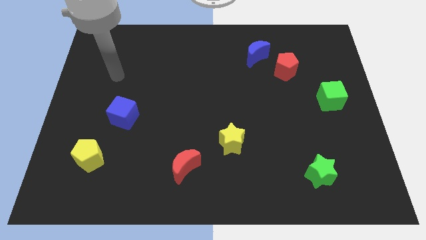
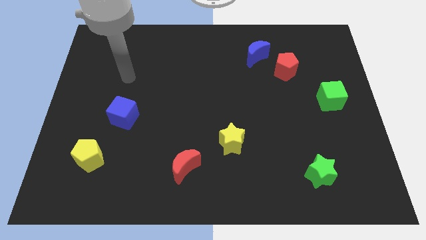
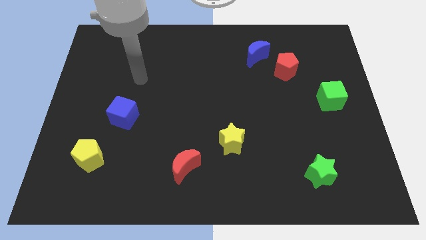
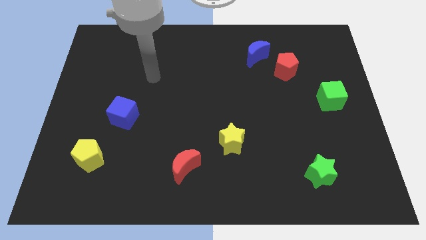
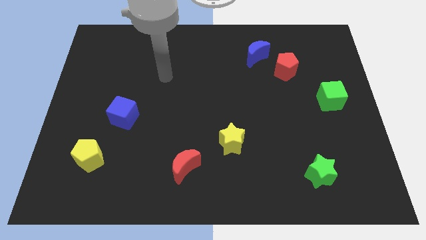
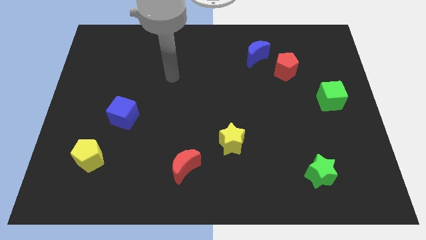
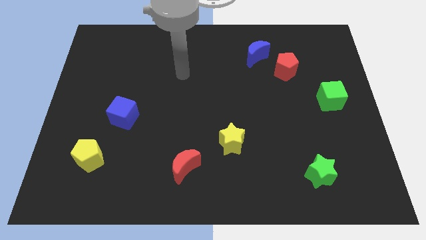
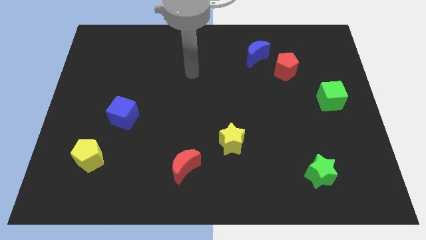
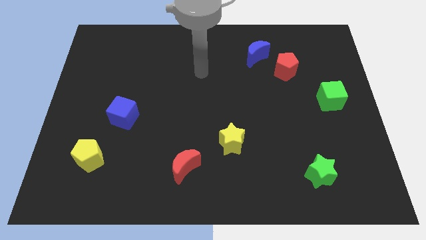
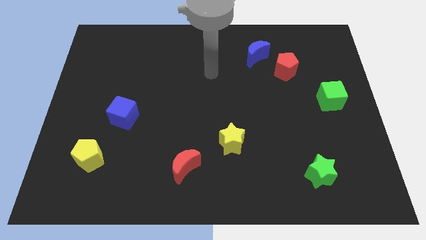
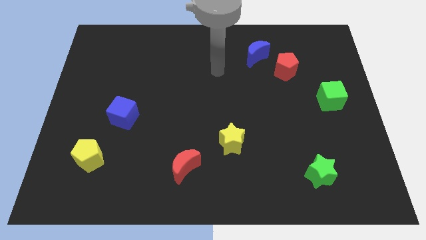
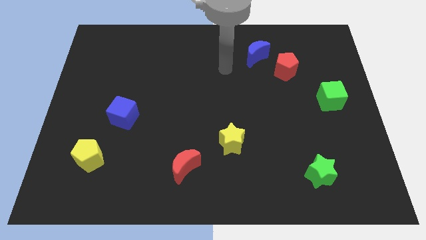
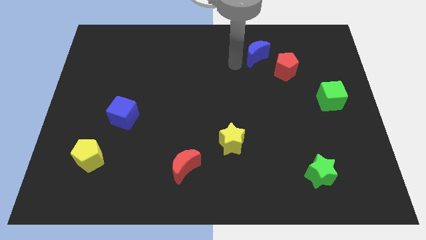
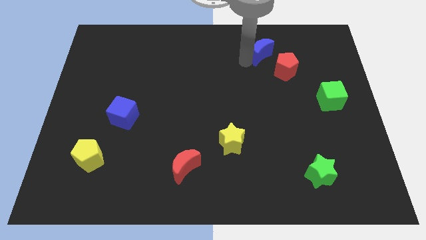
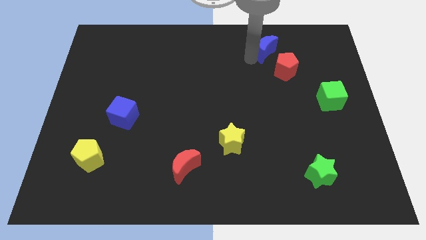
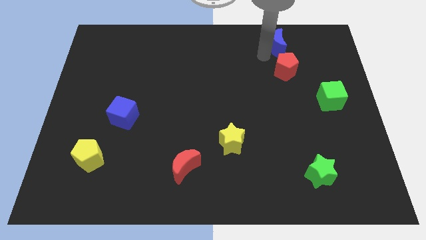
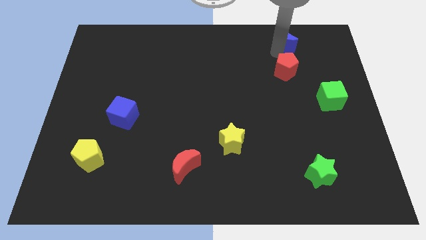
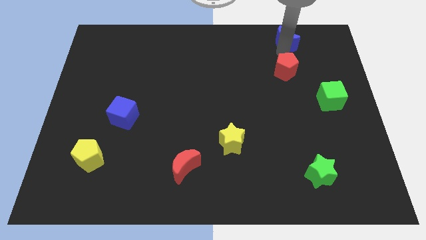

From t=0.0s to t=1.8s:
pull the red pentagon apart from the blue moon

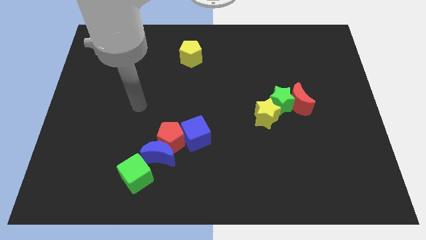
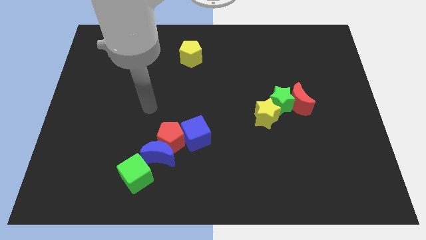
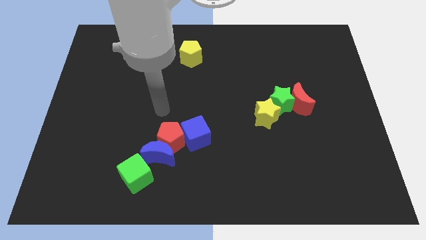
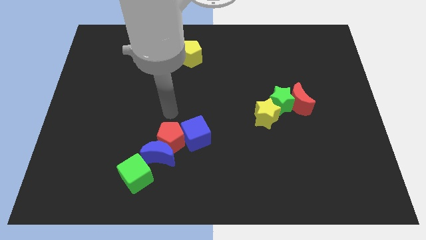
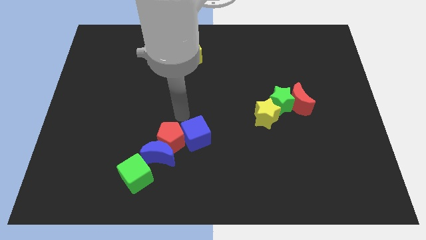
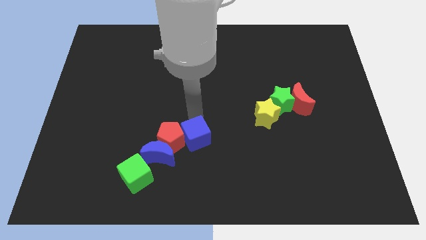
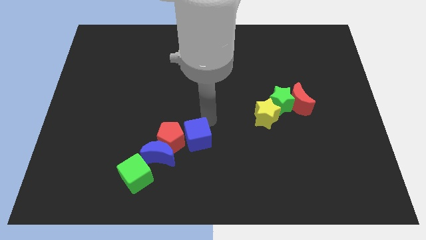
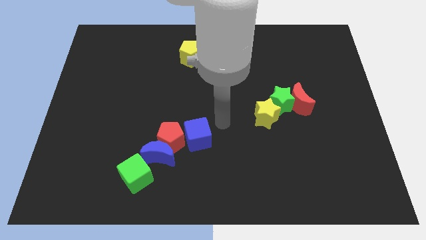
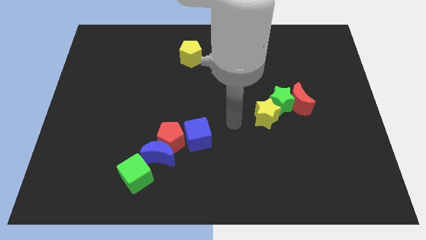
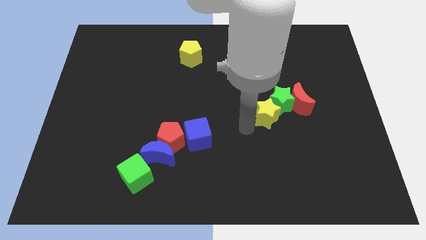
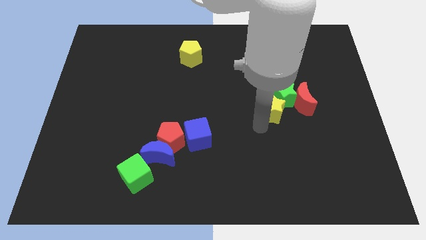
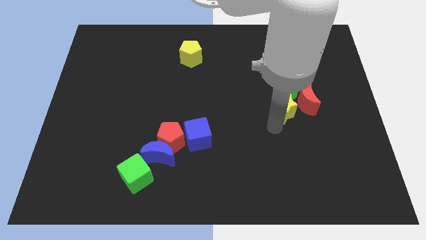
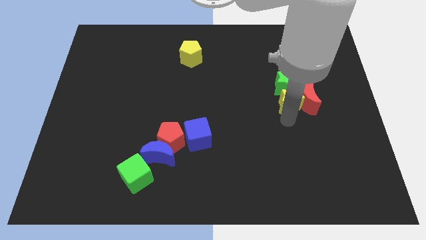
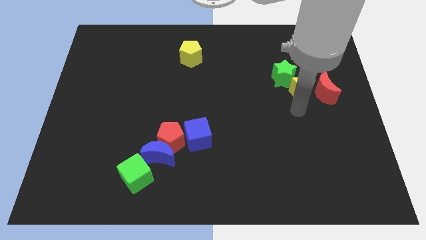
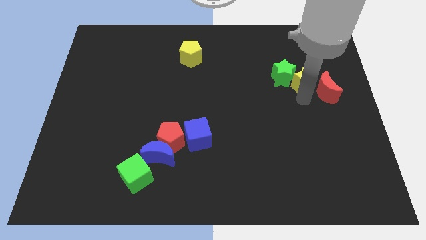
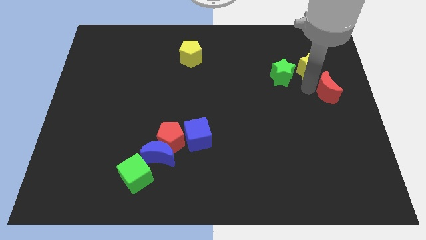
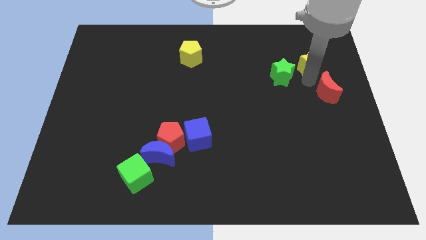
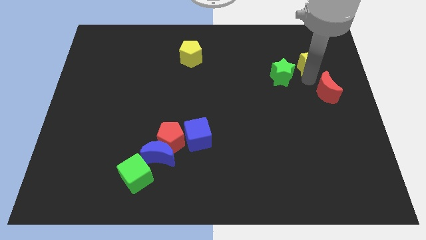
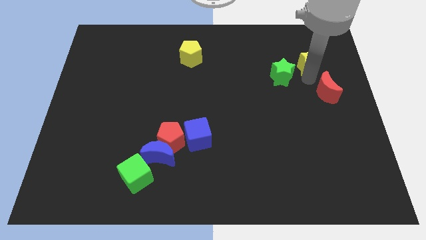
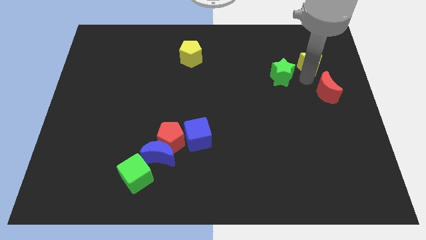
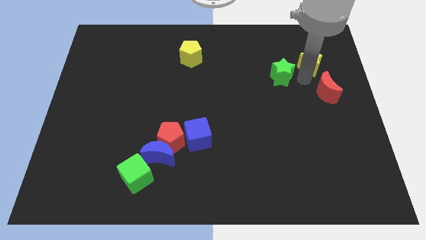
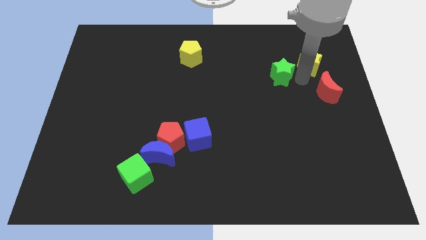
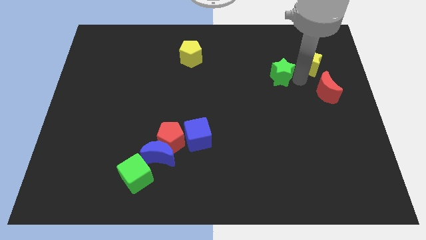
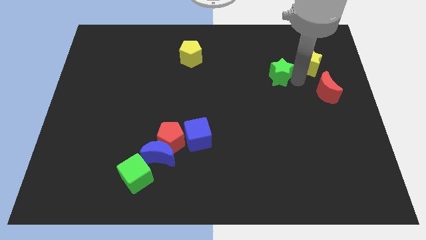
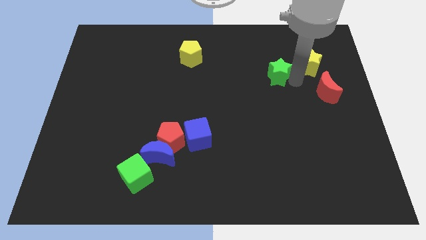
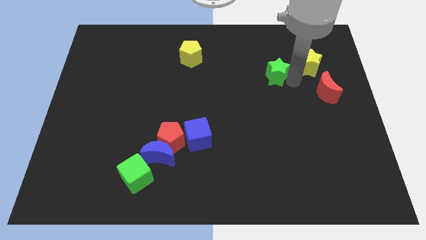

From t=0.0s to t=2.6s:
move the green star away from the red moon and yellow star

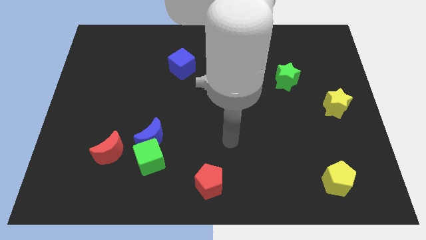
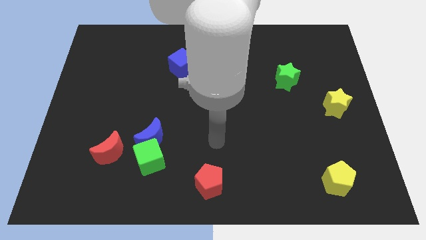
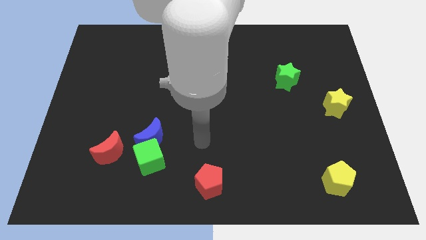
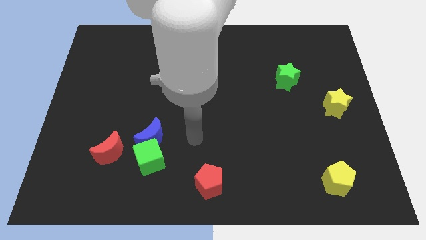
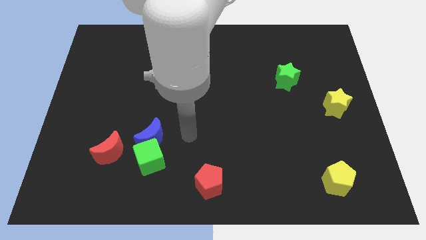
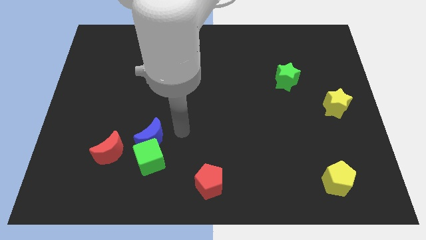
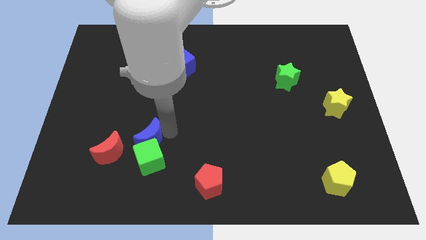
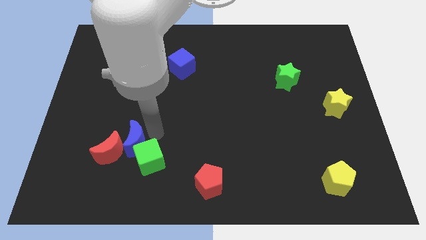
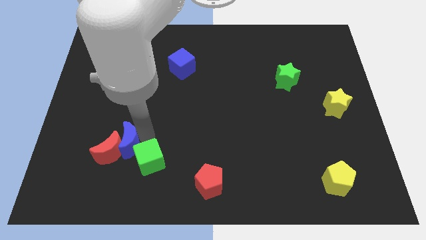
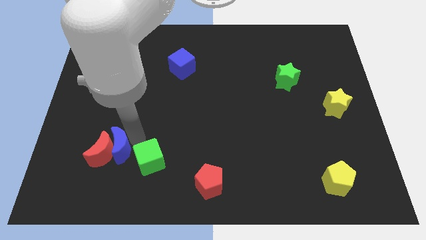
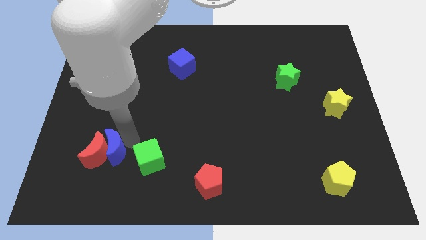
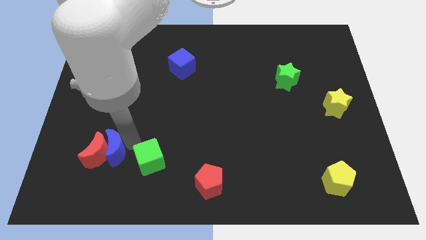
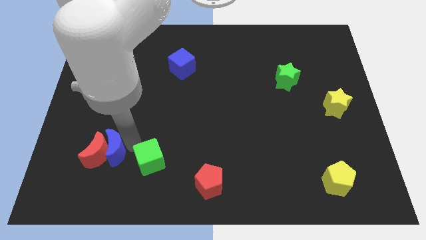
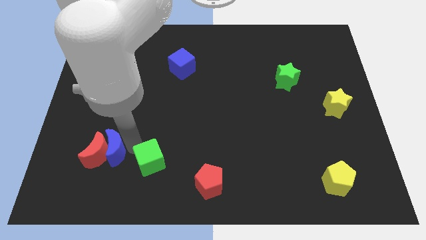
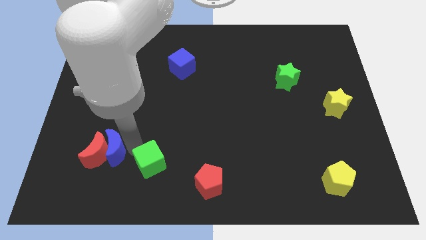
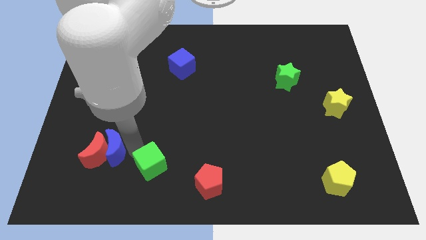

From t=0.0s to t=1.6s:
separate the green cube from the blue moon and red moon

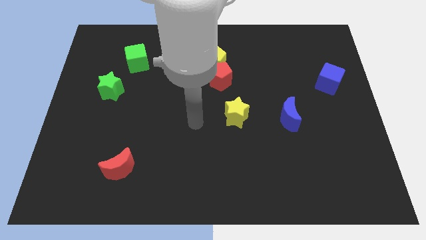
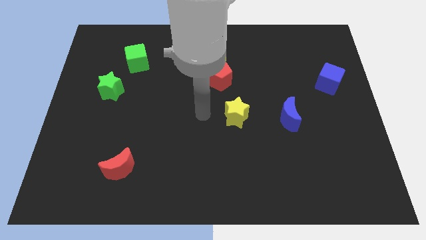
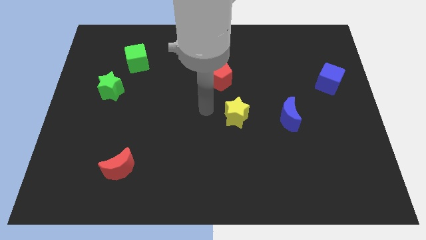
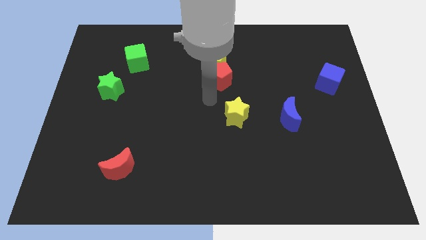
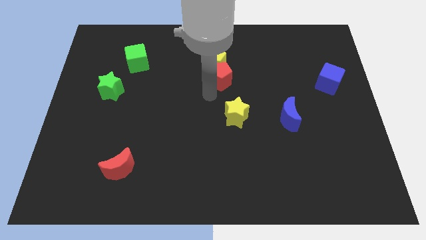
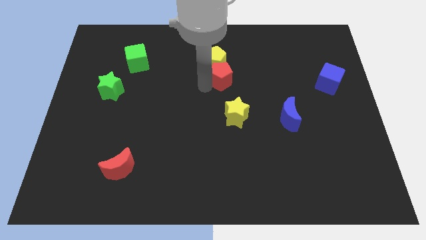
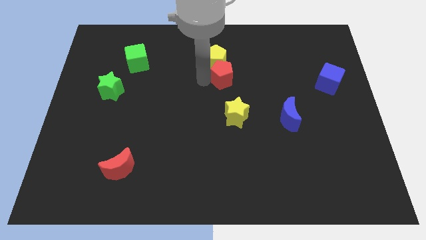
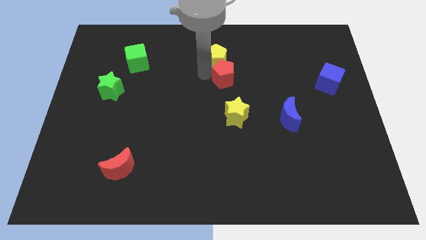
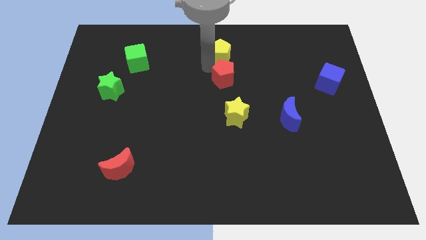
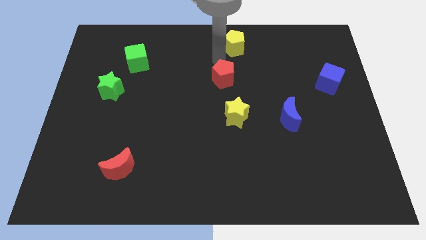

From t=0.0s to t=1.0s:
separate the red pentagon from the yellow pentagon

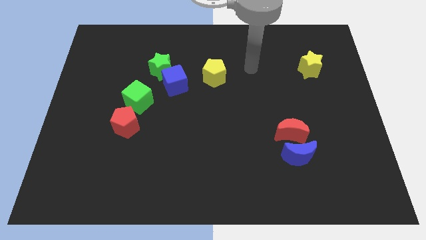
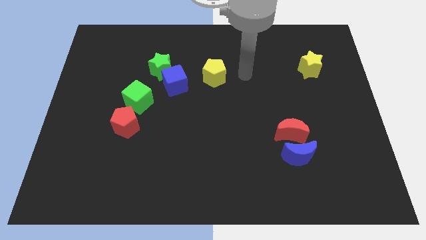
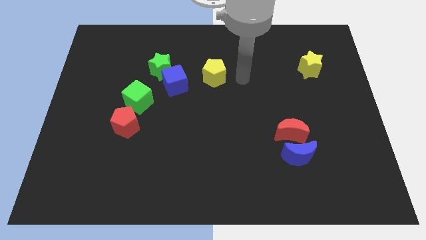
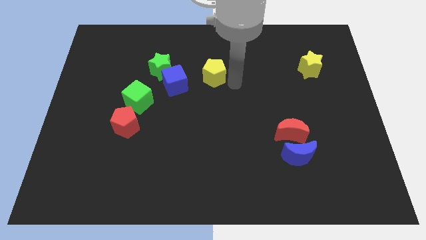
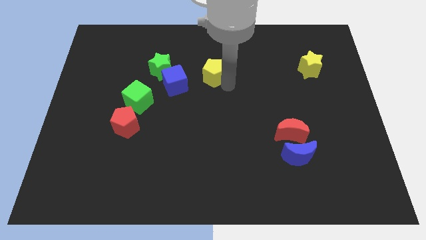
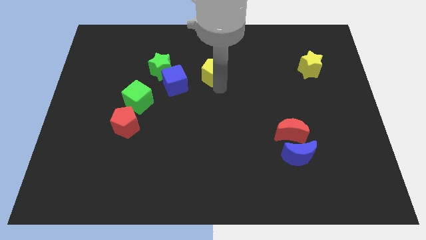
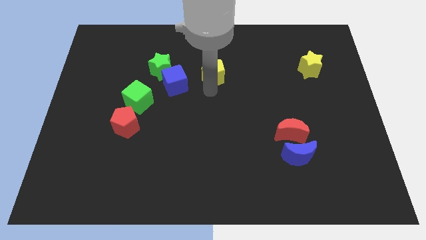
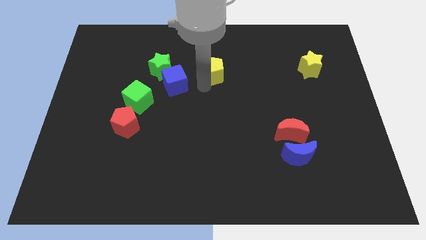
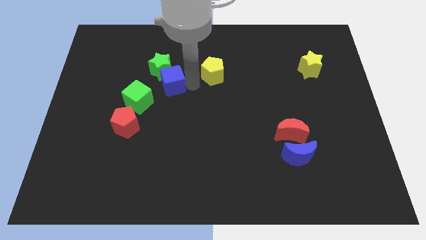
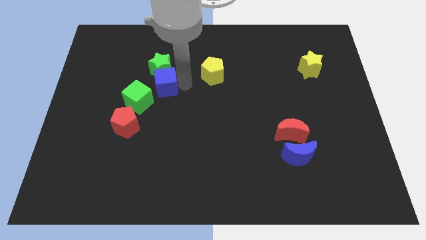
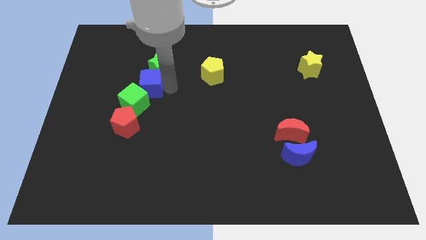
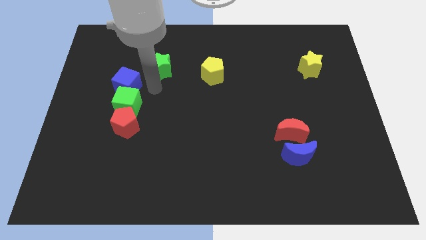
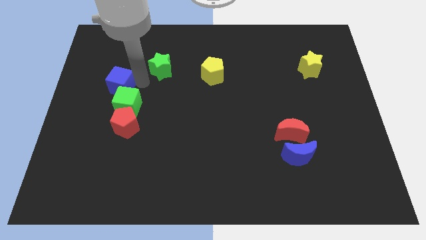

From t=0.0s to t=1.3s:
move the green star away from the blue cube

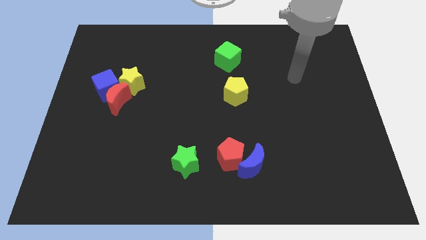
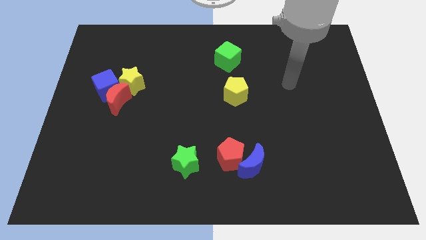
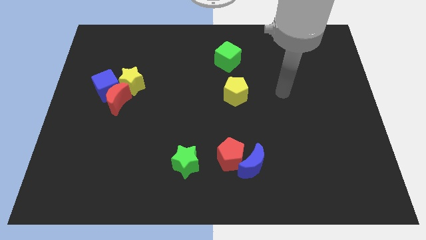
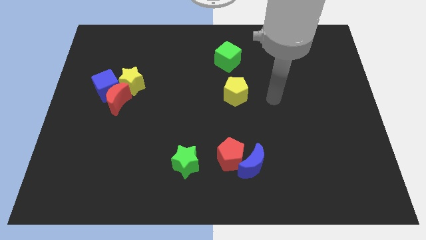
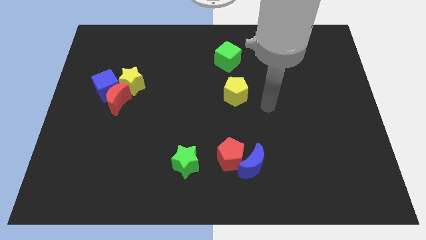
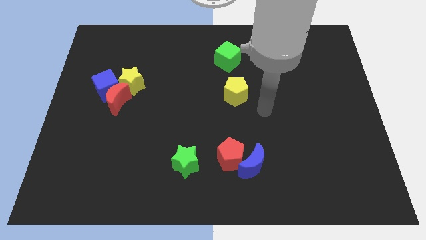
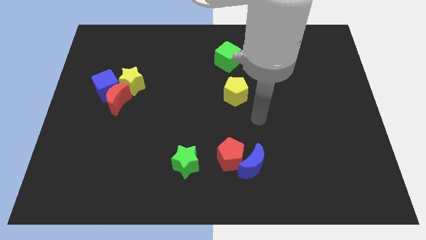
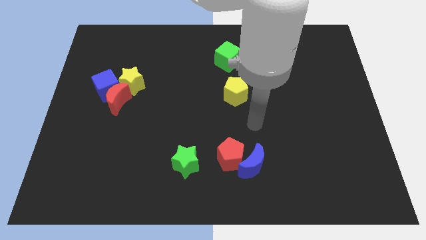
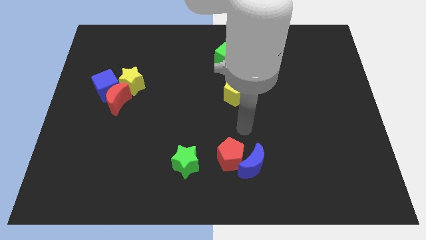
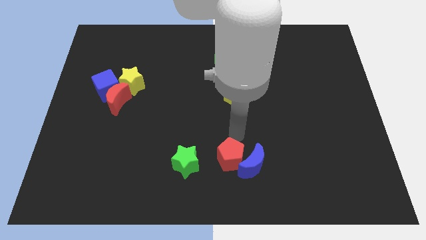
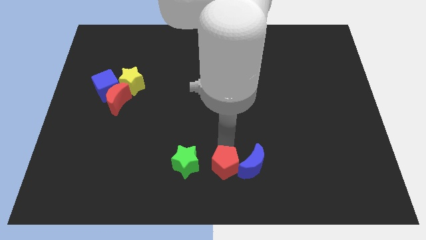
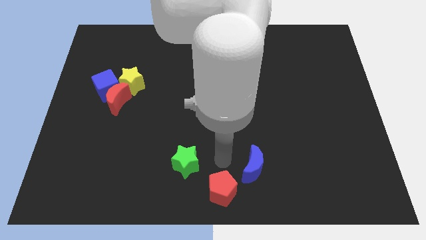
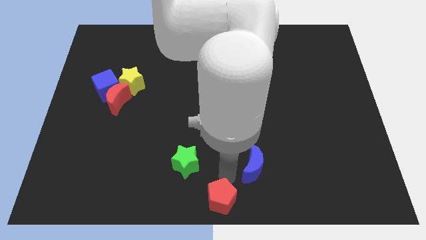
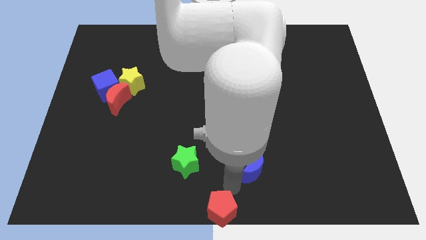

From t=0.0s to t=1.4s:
move the blue moon away from the red pentagon
